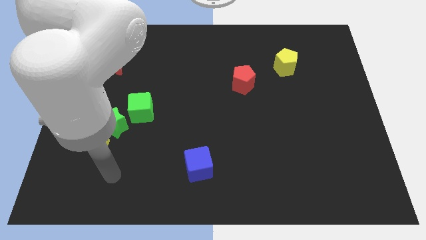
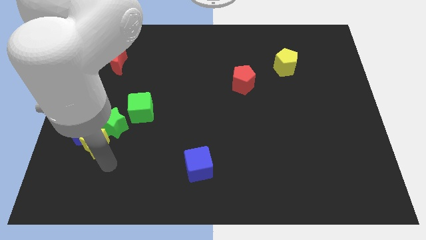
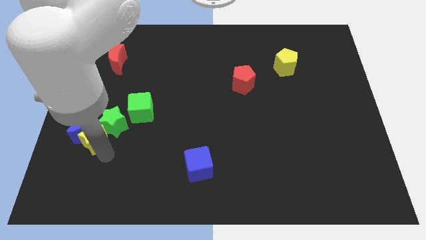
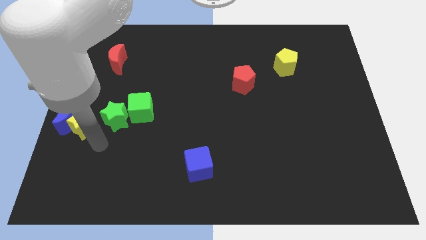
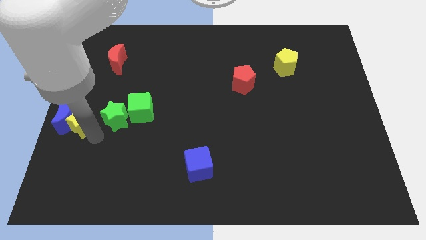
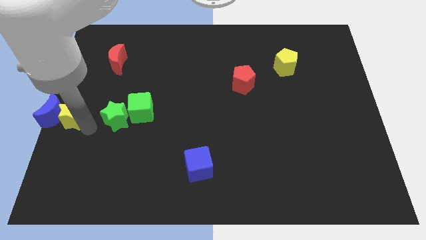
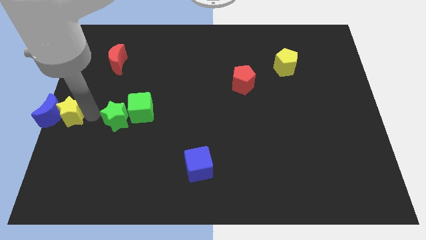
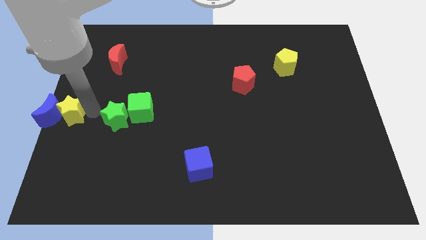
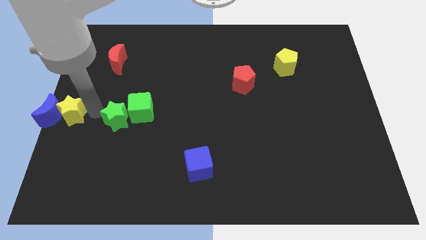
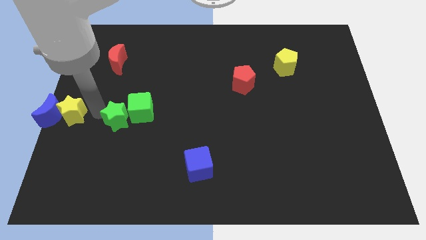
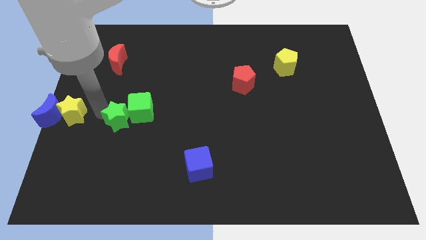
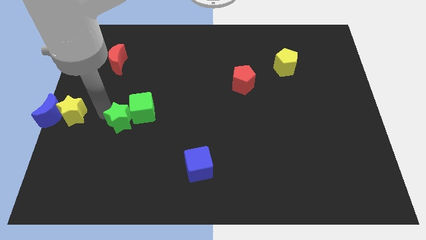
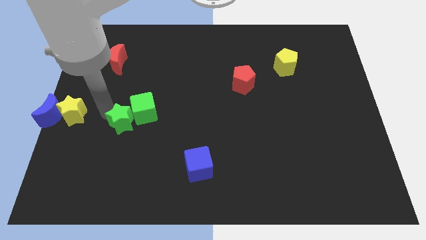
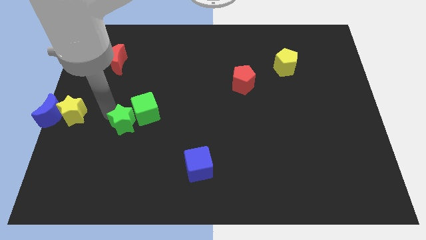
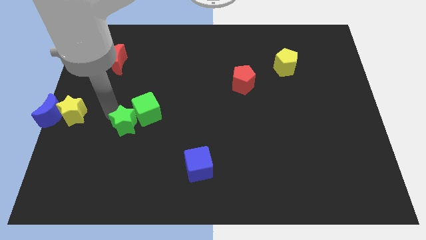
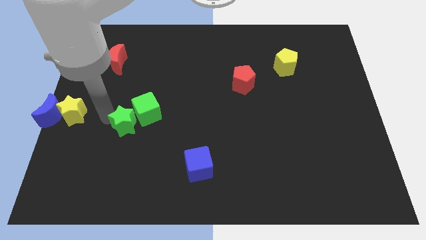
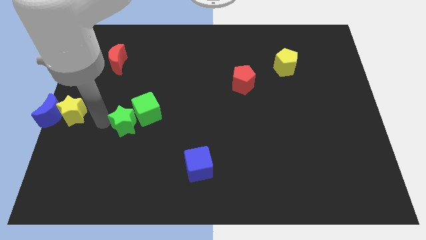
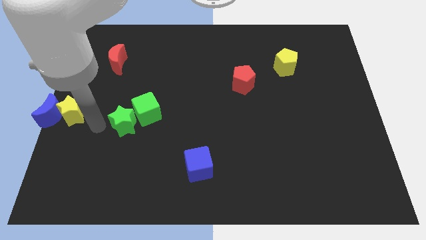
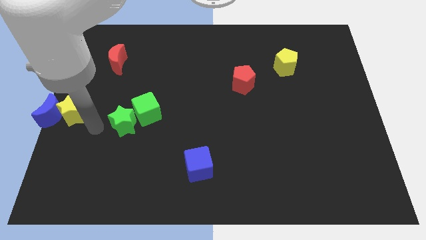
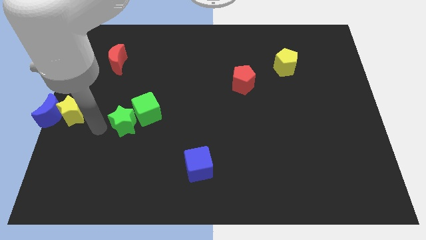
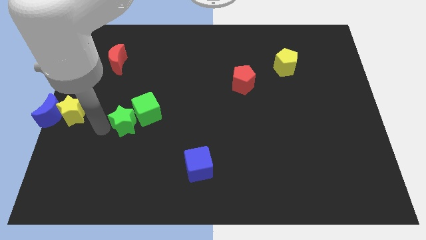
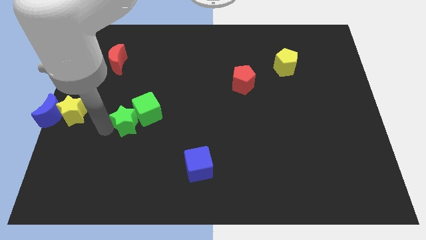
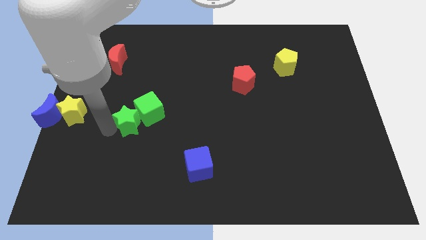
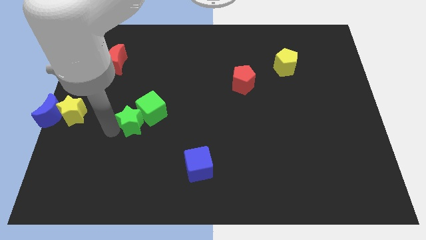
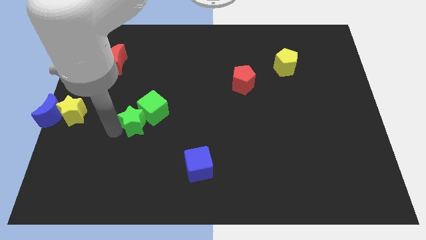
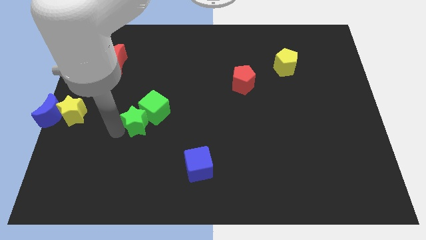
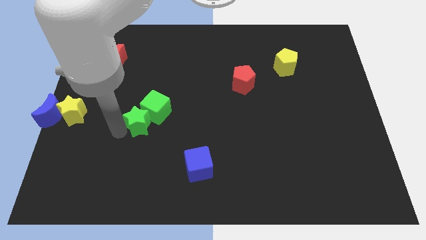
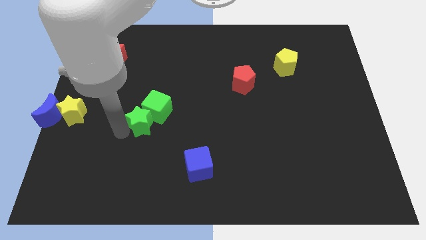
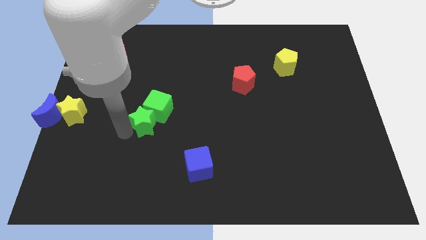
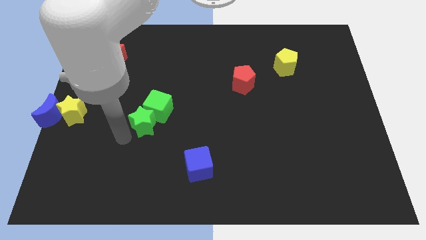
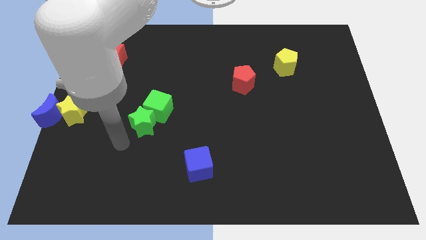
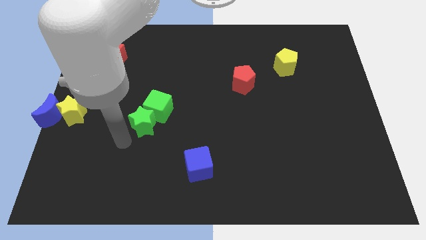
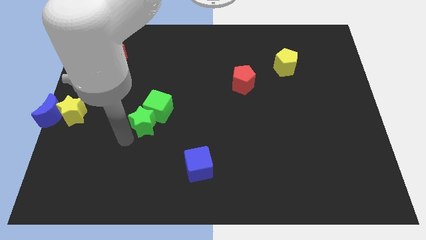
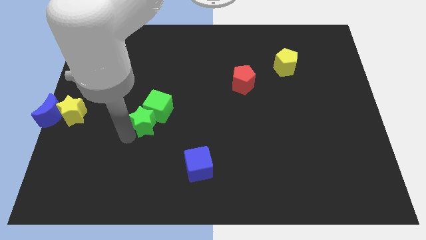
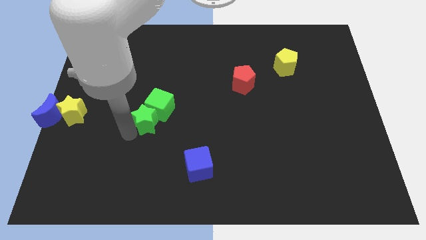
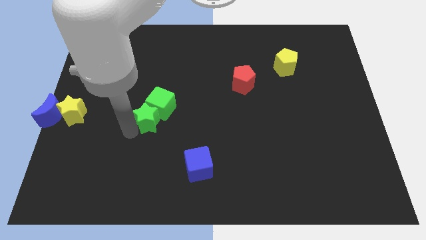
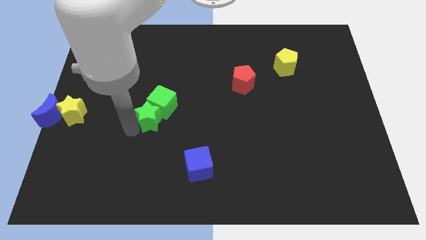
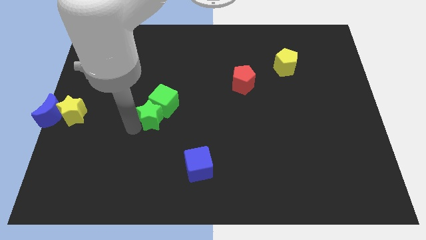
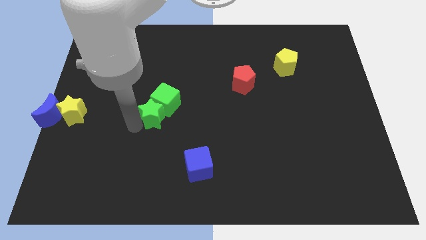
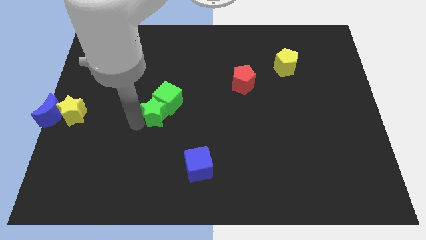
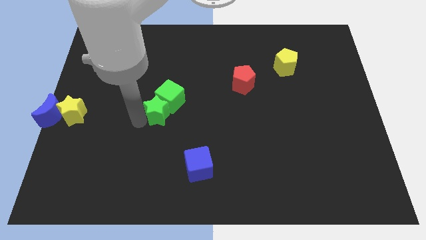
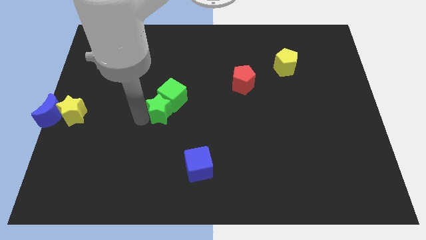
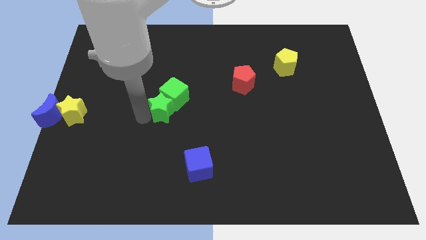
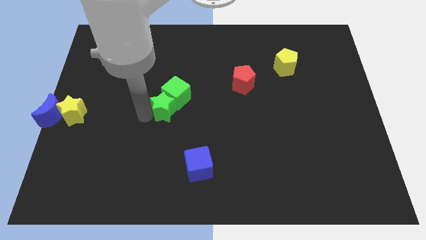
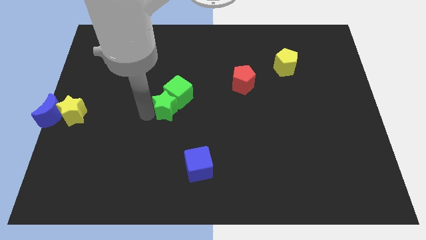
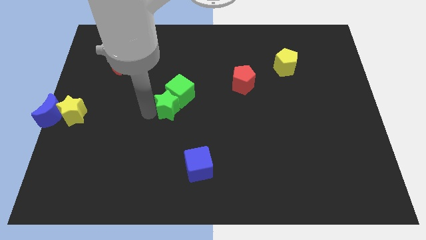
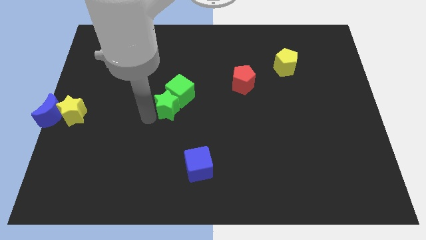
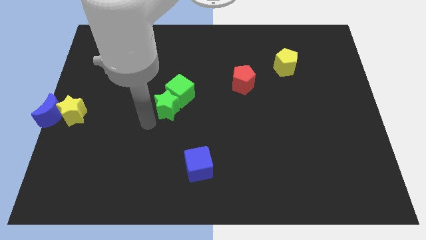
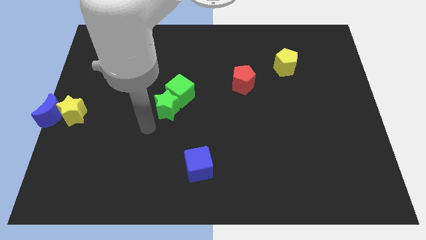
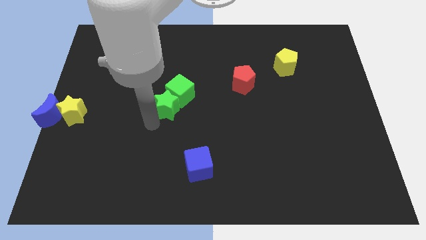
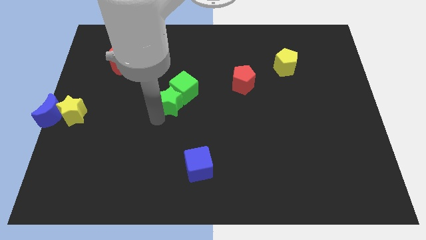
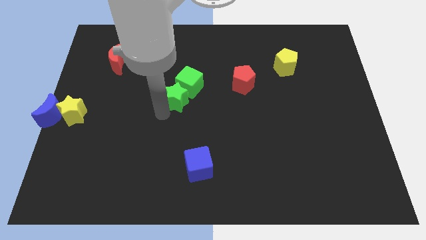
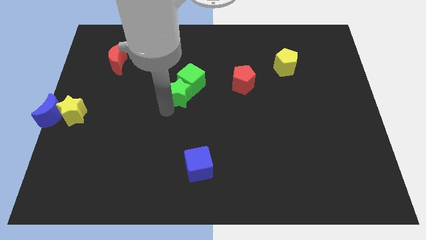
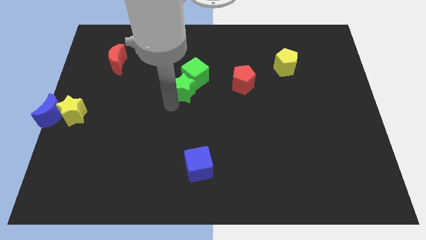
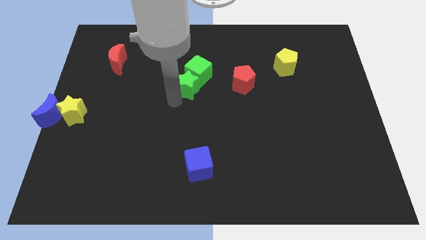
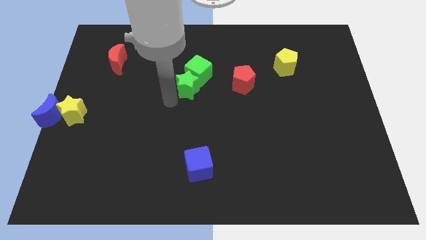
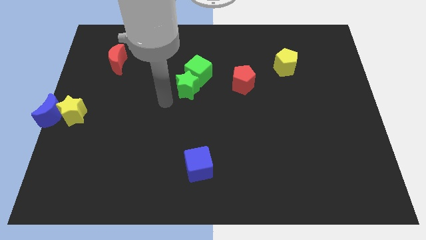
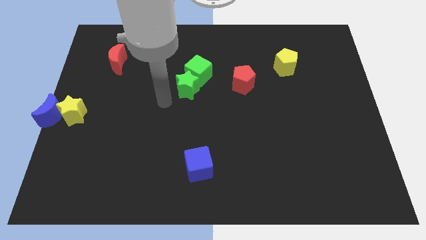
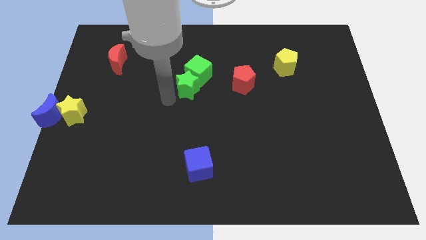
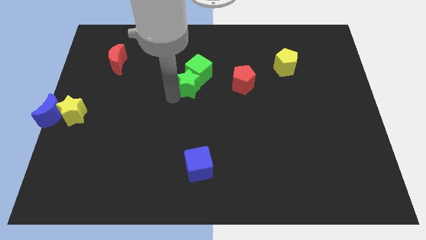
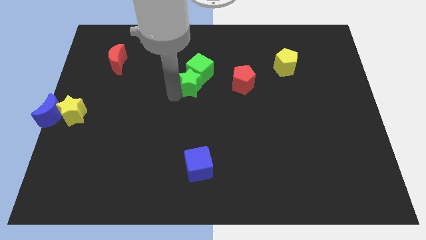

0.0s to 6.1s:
push the green star diagonally up and to the right

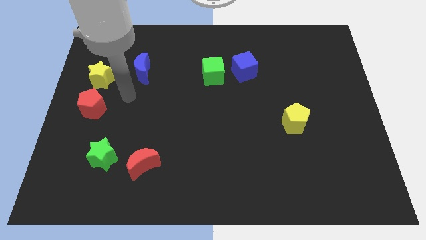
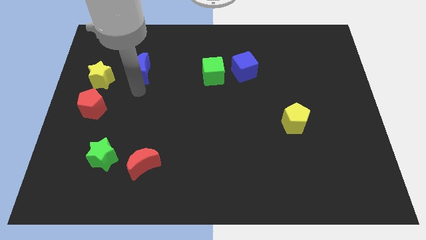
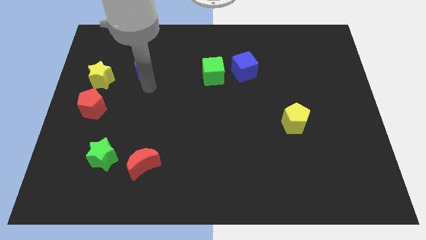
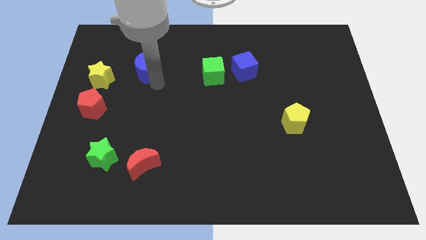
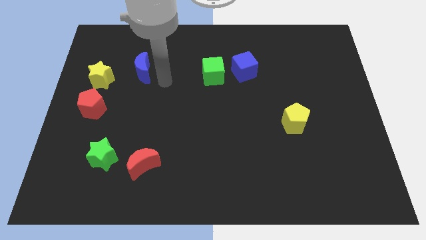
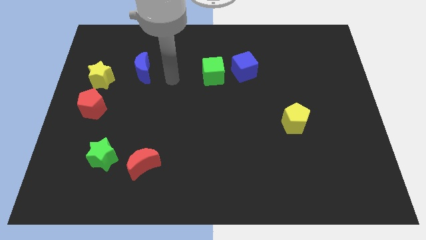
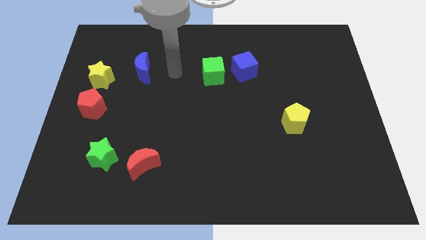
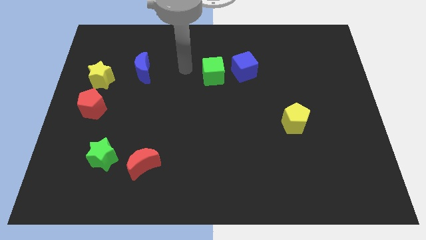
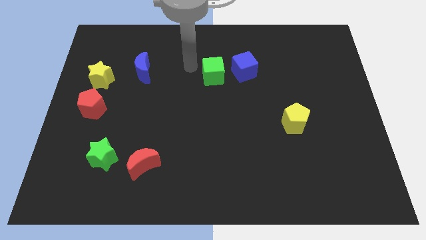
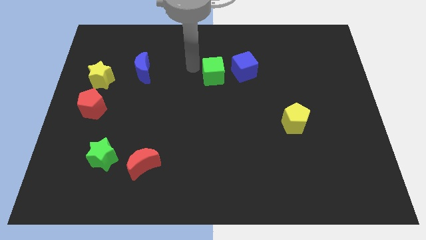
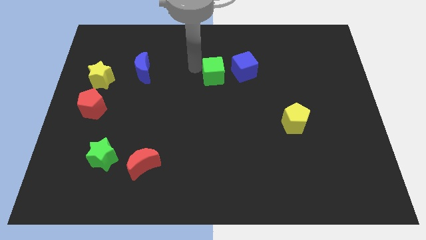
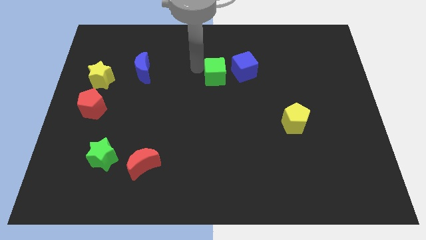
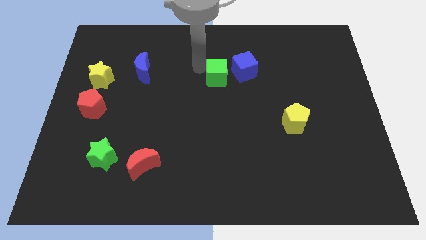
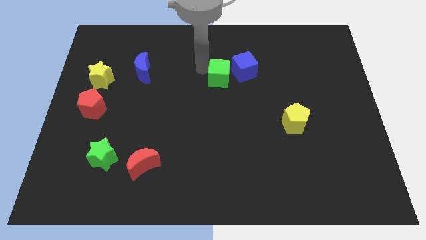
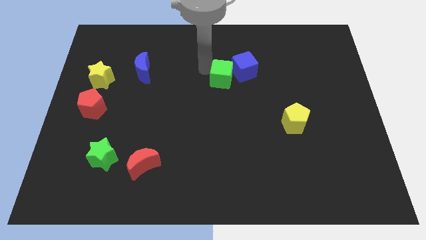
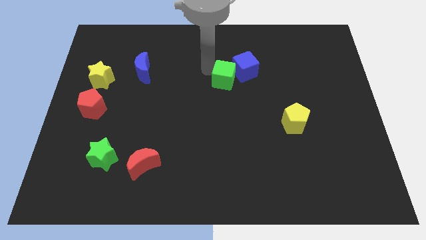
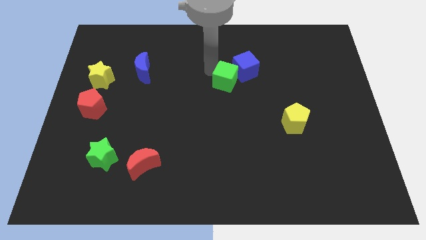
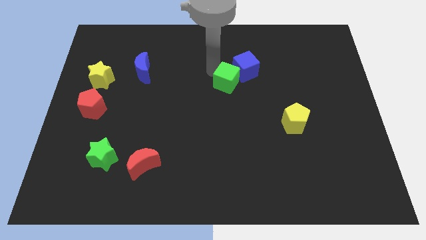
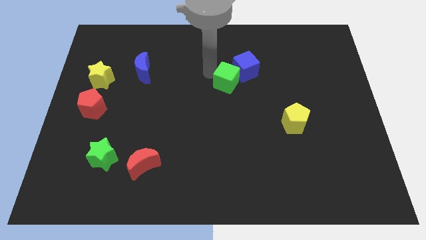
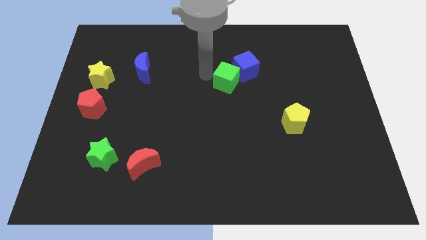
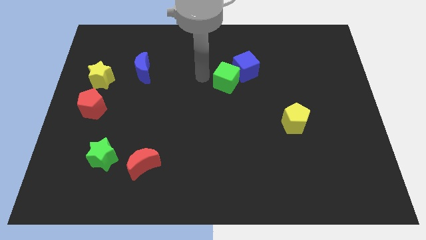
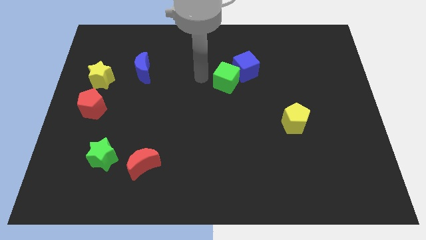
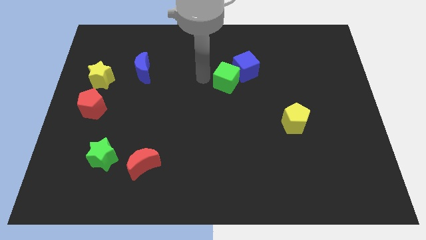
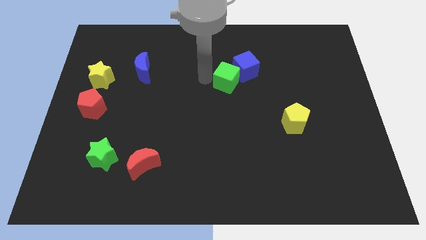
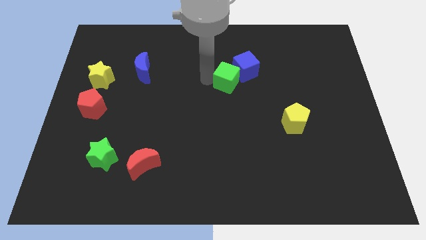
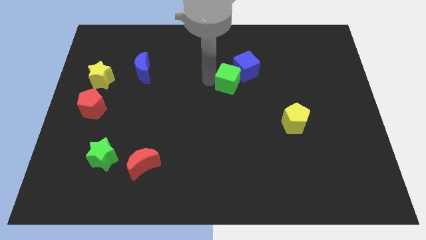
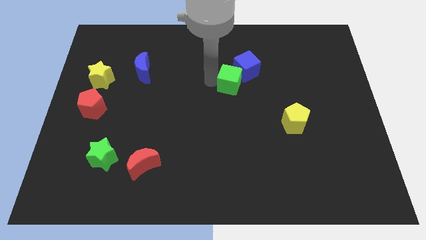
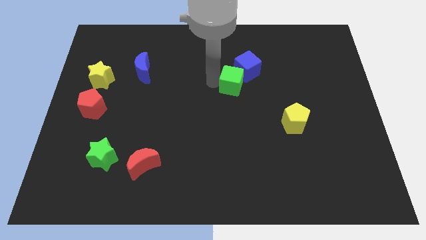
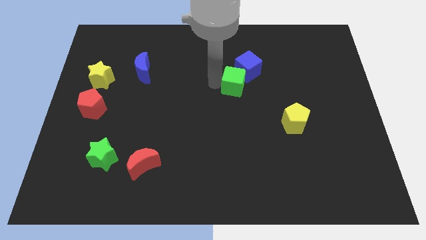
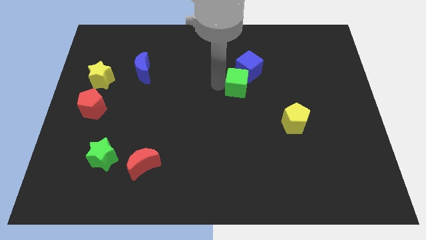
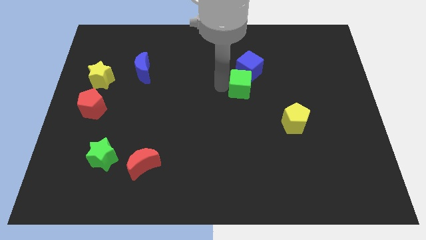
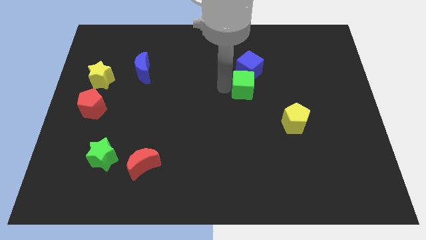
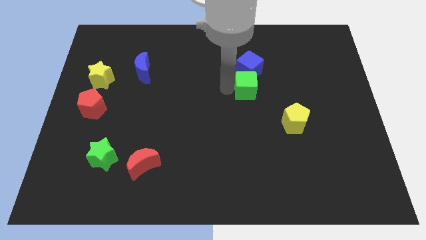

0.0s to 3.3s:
slightly slide the green cube right
